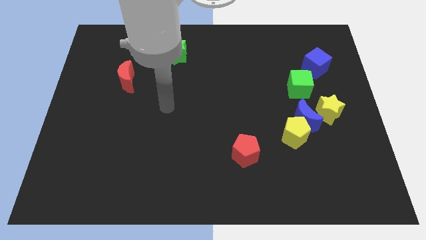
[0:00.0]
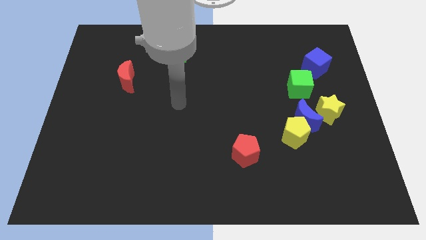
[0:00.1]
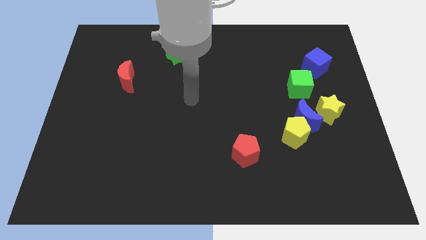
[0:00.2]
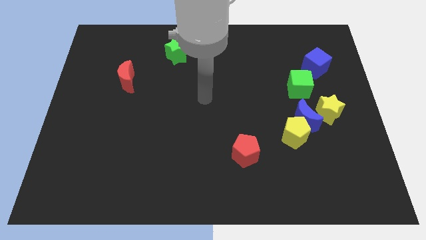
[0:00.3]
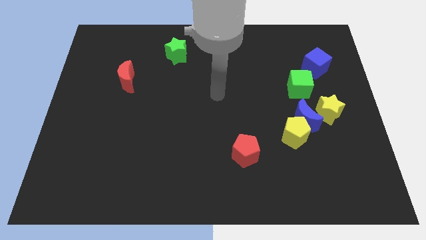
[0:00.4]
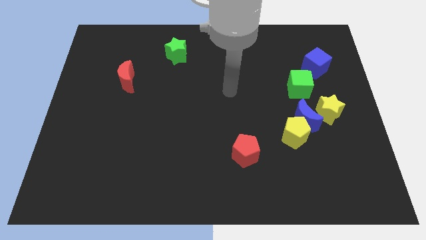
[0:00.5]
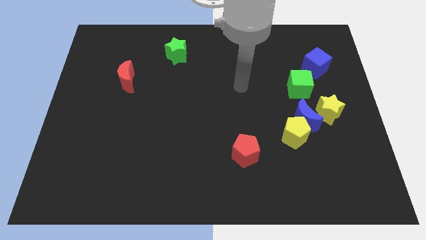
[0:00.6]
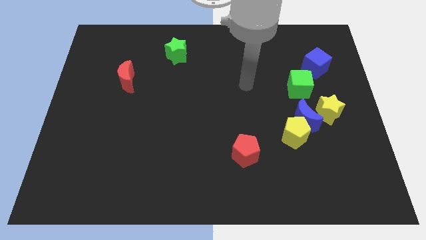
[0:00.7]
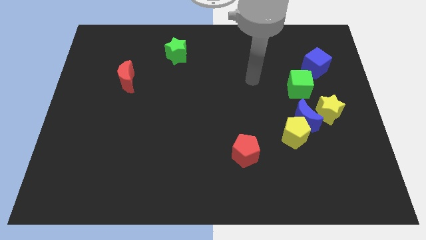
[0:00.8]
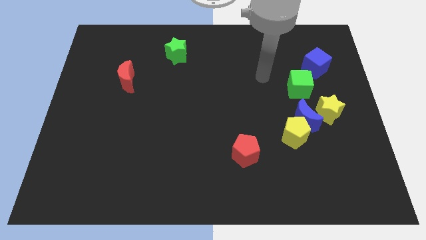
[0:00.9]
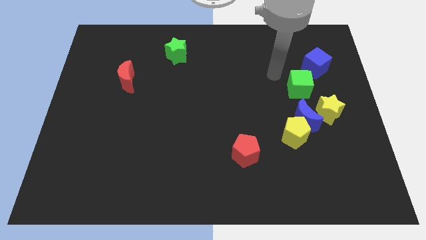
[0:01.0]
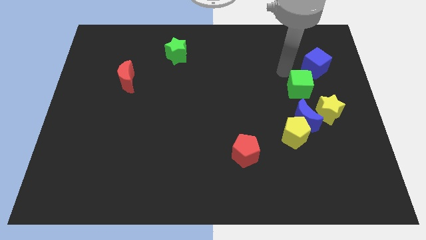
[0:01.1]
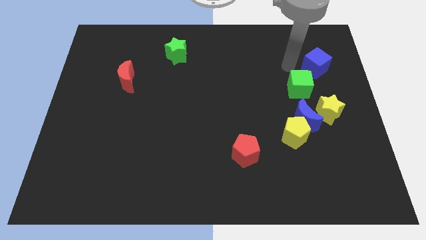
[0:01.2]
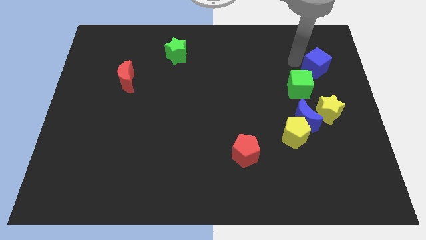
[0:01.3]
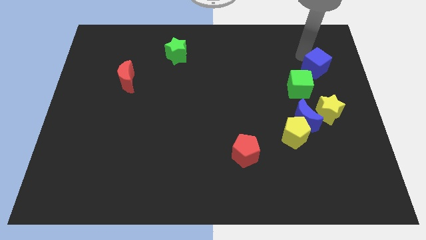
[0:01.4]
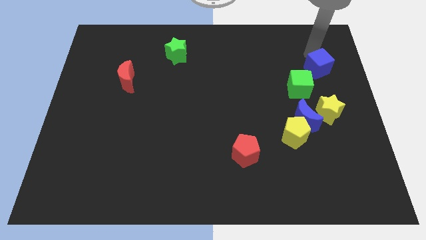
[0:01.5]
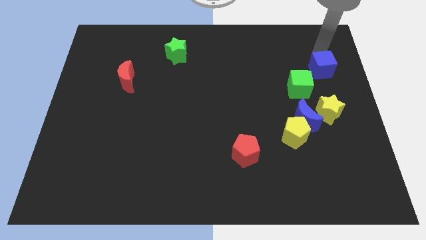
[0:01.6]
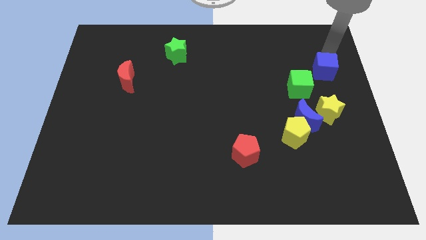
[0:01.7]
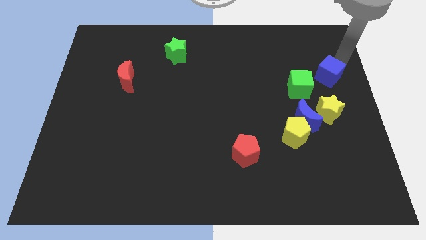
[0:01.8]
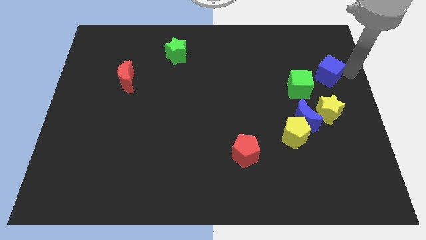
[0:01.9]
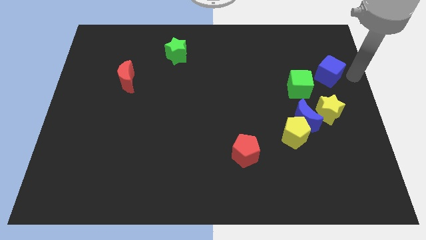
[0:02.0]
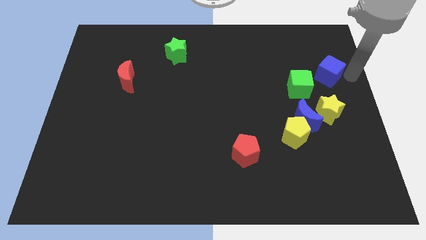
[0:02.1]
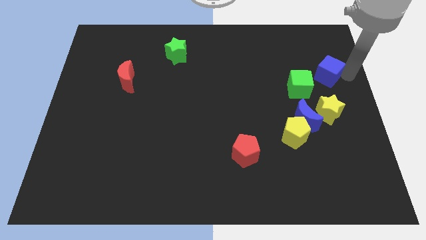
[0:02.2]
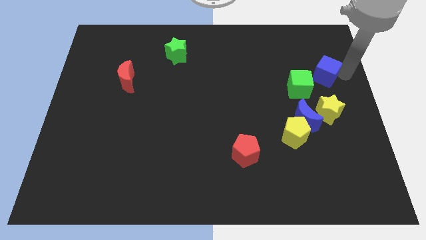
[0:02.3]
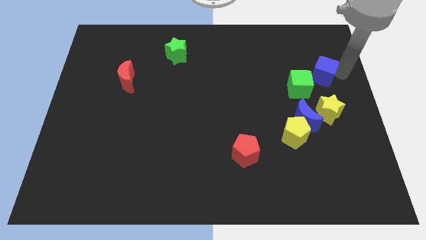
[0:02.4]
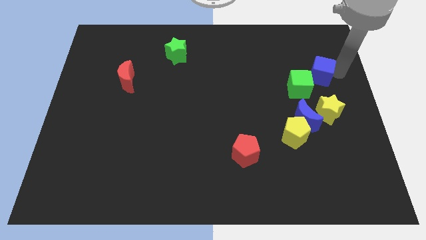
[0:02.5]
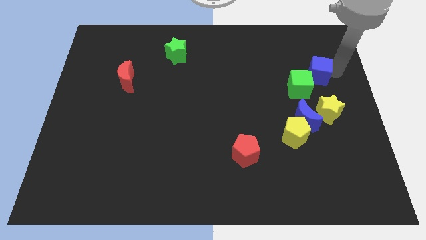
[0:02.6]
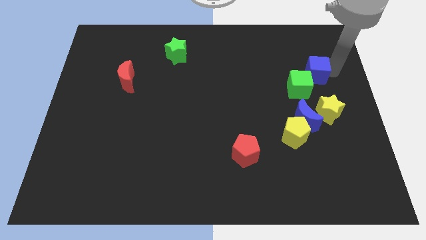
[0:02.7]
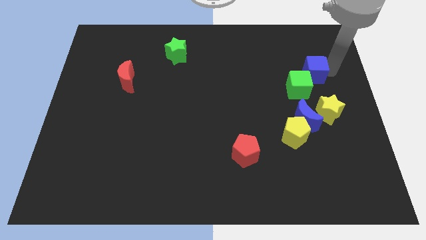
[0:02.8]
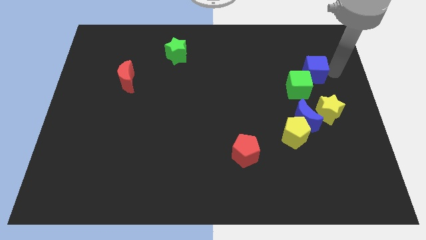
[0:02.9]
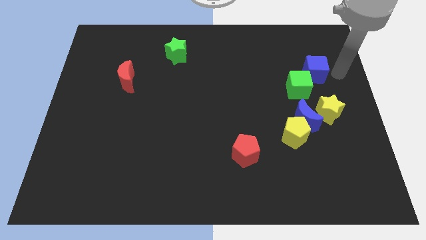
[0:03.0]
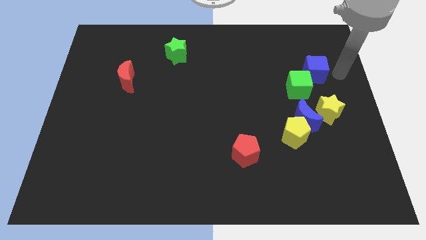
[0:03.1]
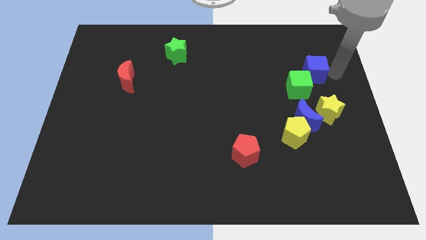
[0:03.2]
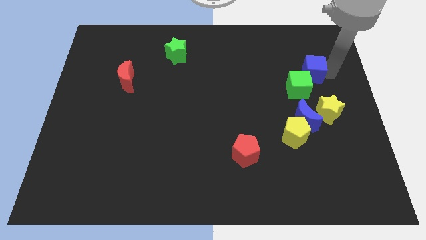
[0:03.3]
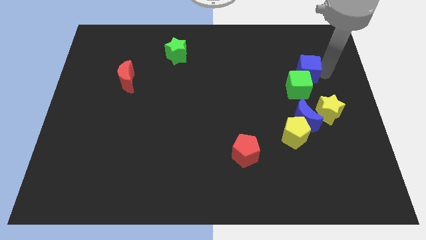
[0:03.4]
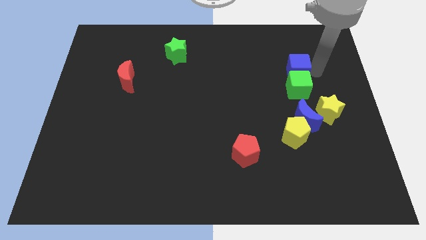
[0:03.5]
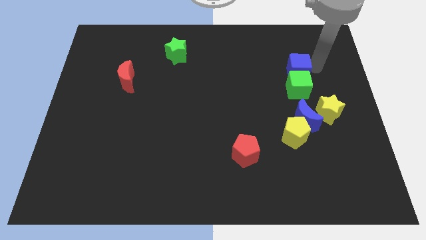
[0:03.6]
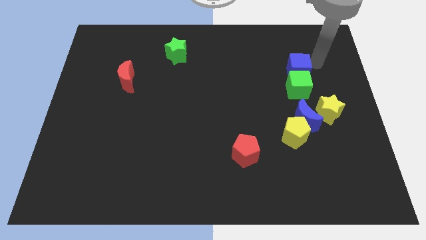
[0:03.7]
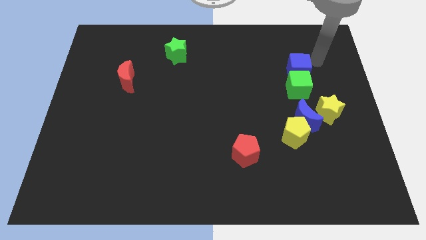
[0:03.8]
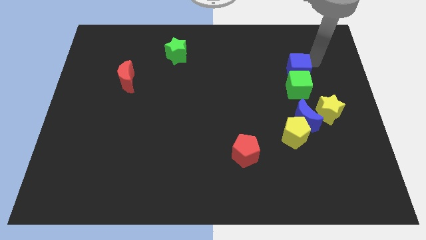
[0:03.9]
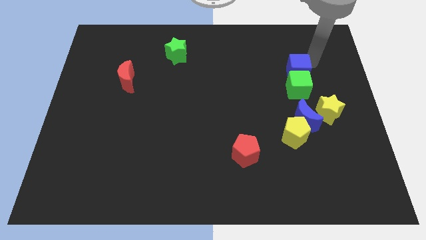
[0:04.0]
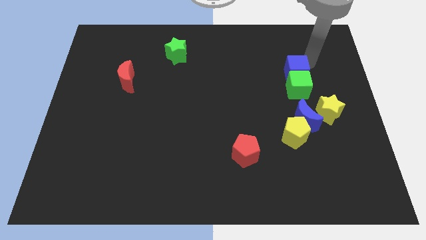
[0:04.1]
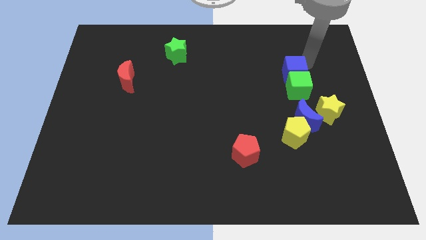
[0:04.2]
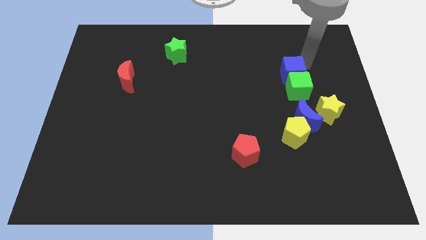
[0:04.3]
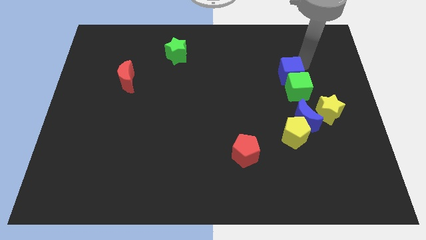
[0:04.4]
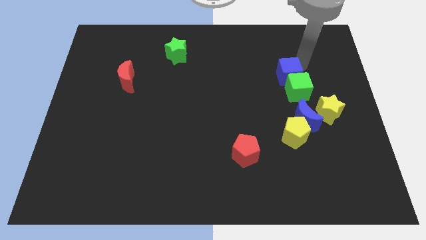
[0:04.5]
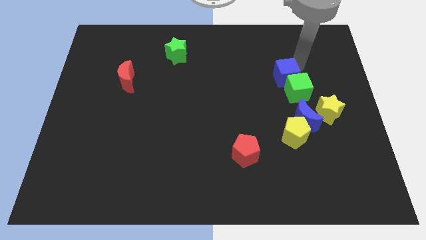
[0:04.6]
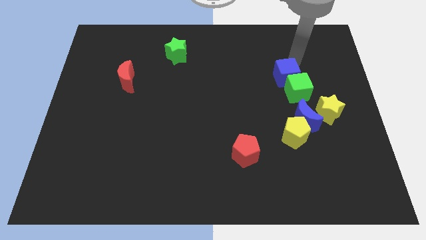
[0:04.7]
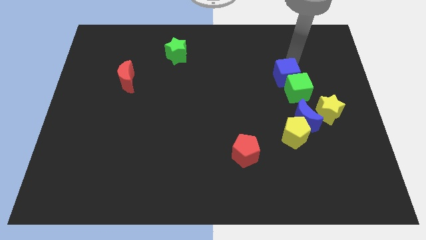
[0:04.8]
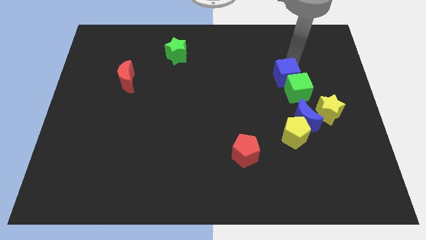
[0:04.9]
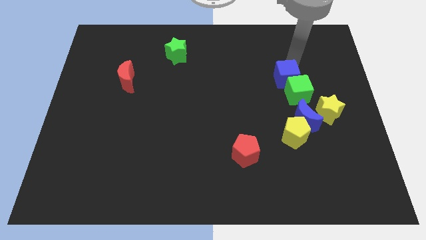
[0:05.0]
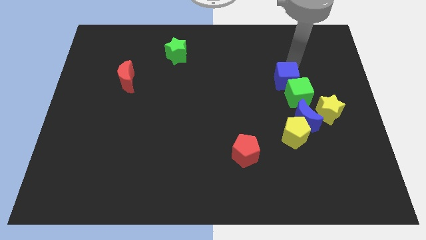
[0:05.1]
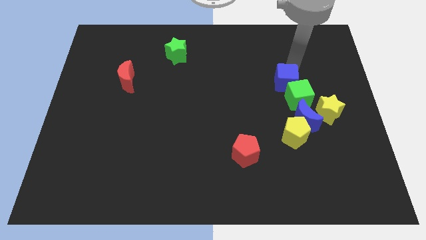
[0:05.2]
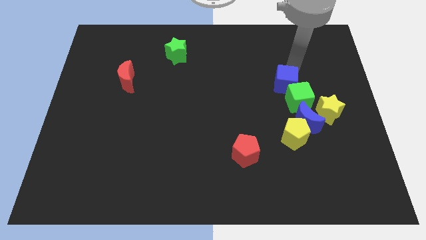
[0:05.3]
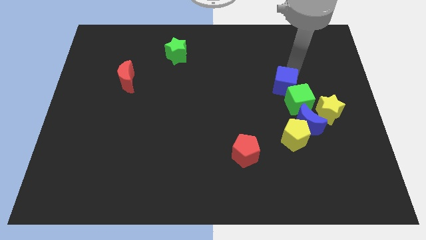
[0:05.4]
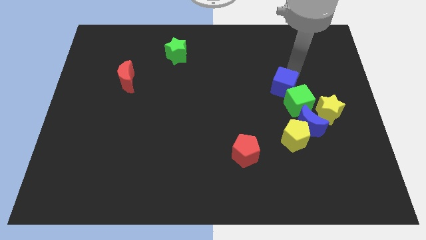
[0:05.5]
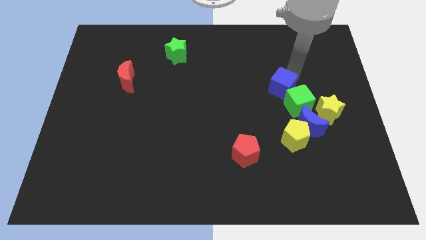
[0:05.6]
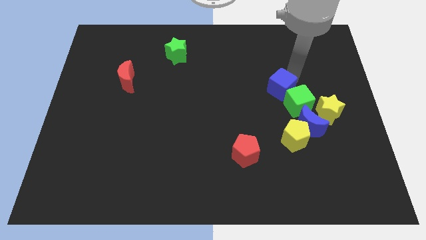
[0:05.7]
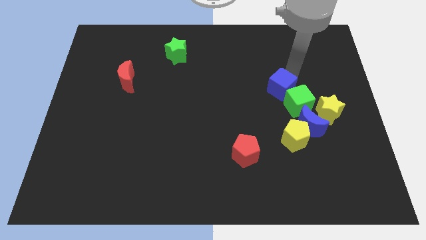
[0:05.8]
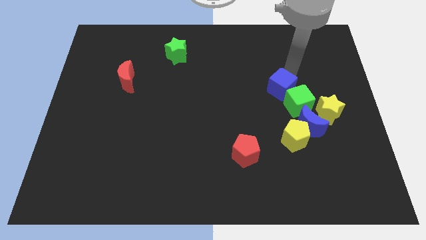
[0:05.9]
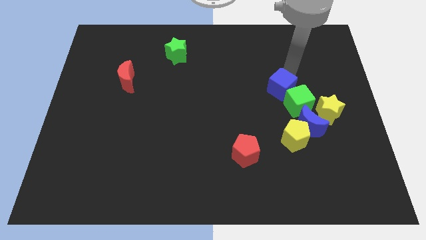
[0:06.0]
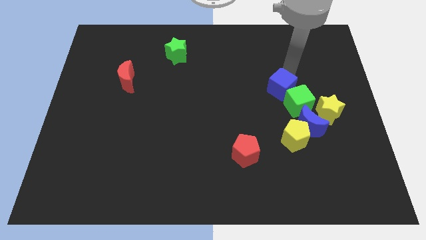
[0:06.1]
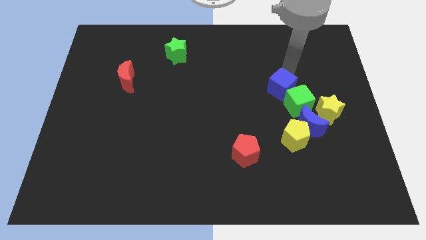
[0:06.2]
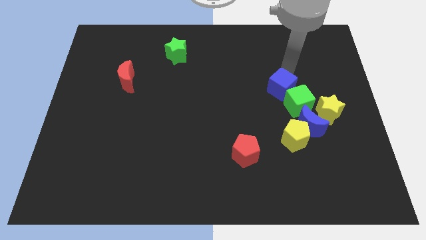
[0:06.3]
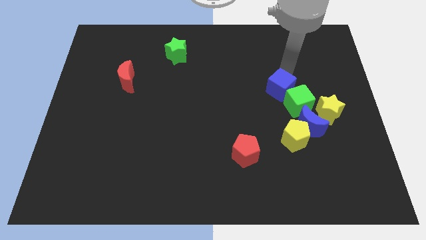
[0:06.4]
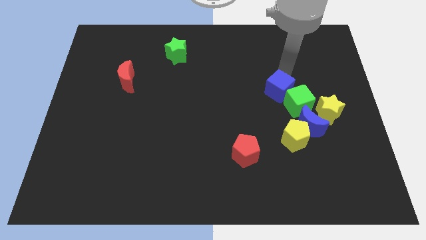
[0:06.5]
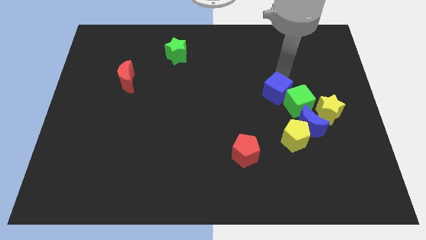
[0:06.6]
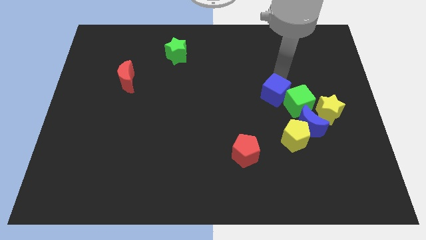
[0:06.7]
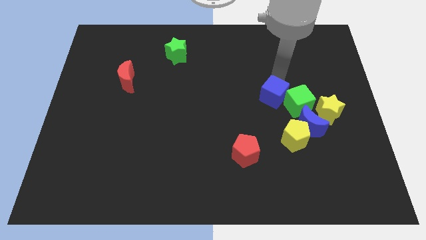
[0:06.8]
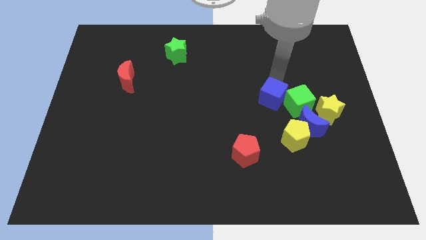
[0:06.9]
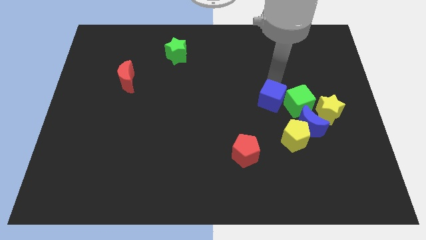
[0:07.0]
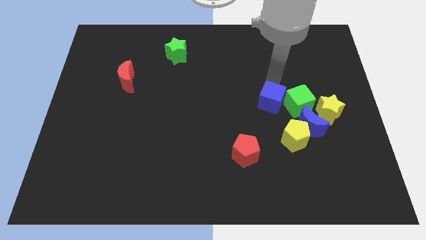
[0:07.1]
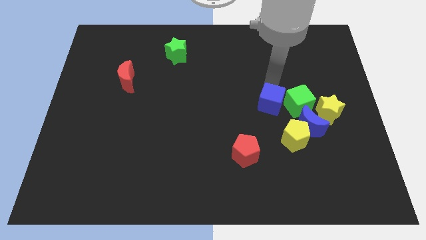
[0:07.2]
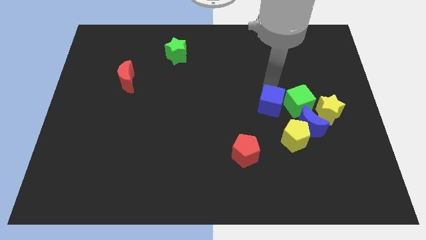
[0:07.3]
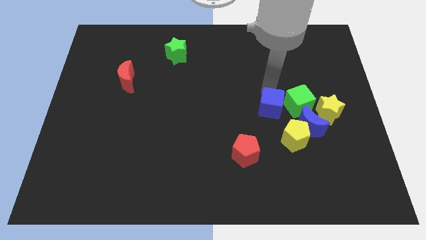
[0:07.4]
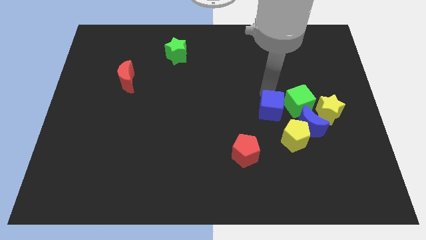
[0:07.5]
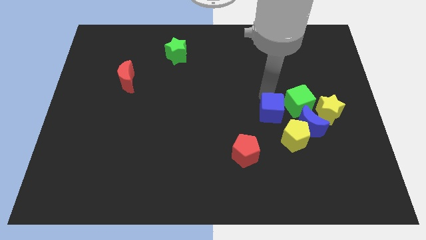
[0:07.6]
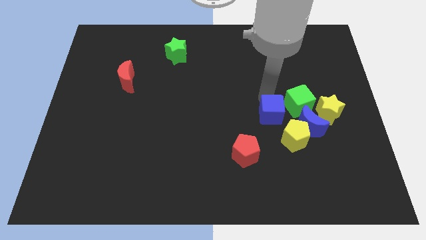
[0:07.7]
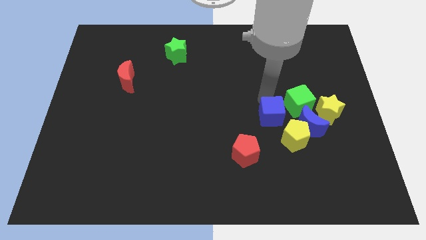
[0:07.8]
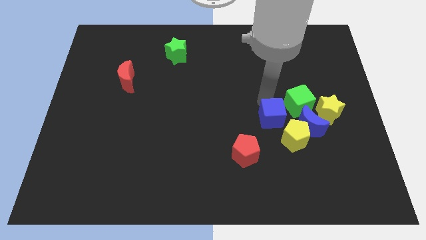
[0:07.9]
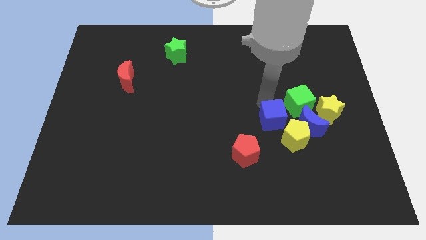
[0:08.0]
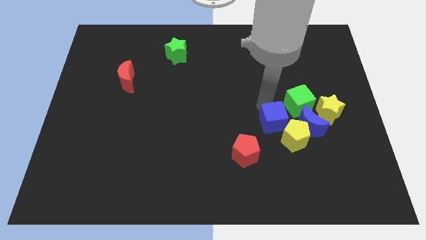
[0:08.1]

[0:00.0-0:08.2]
slide the blue cube towards the yellow pentagon

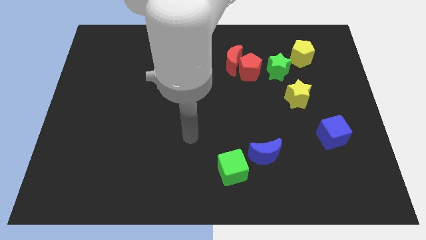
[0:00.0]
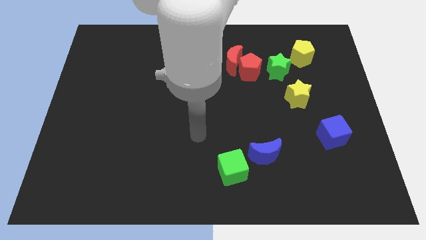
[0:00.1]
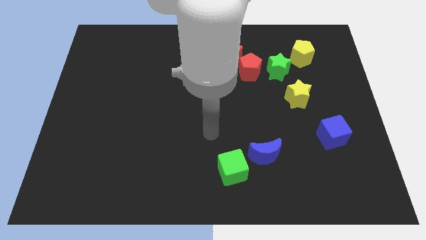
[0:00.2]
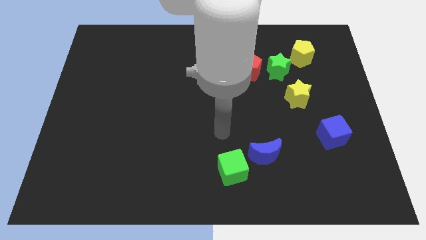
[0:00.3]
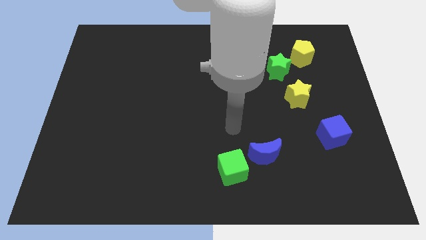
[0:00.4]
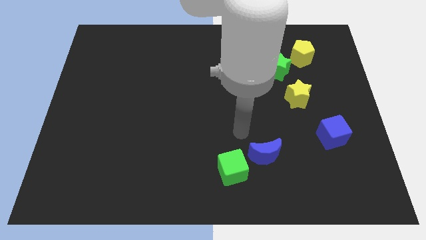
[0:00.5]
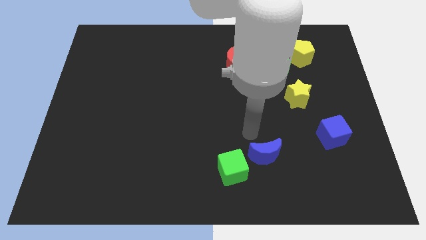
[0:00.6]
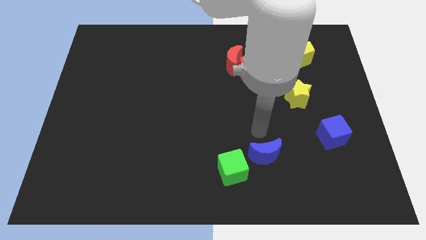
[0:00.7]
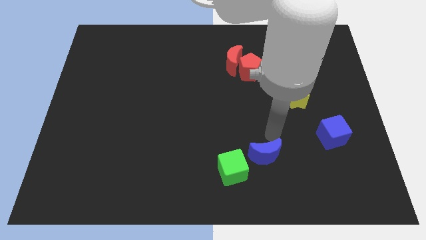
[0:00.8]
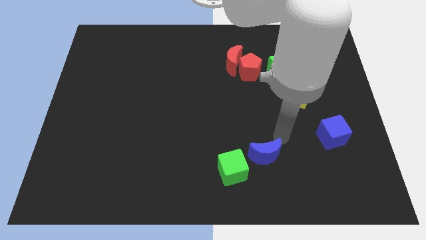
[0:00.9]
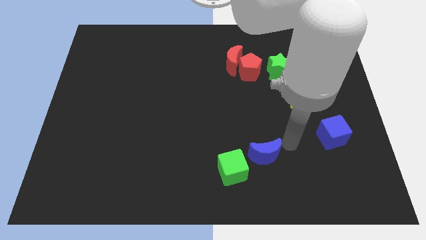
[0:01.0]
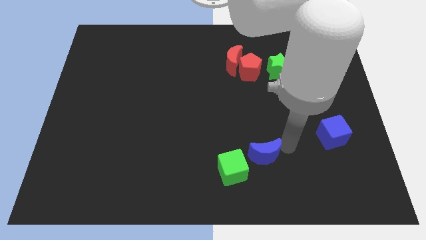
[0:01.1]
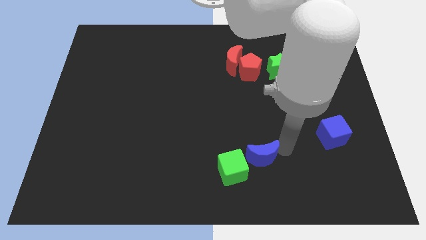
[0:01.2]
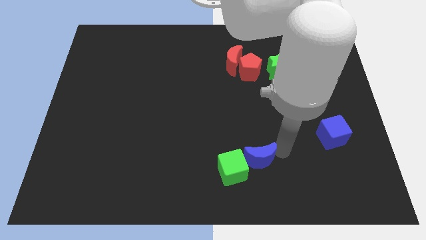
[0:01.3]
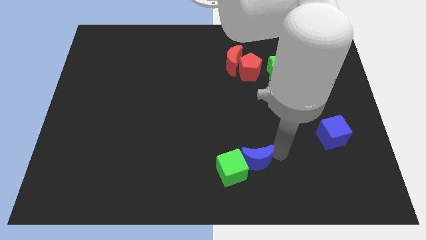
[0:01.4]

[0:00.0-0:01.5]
slide the blue moon next to the green cube
